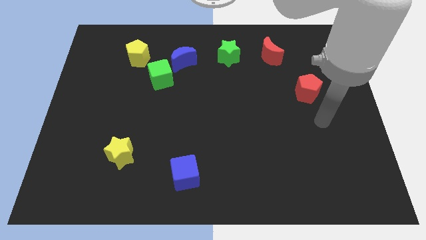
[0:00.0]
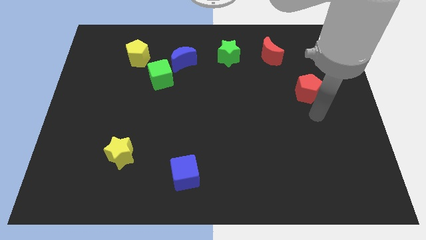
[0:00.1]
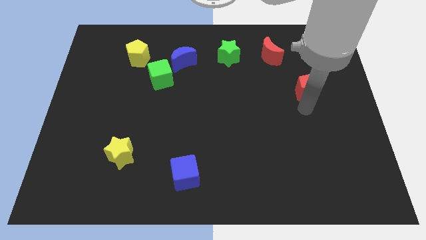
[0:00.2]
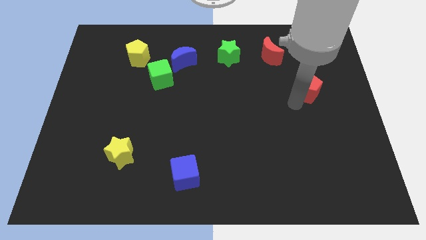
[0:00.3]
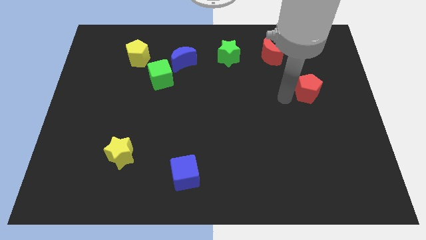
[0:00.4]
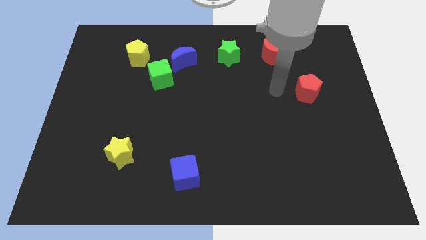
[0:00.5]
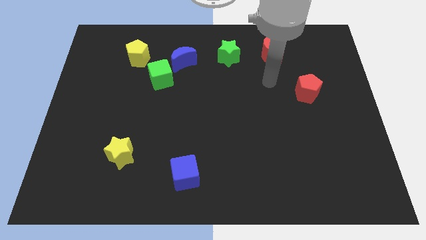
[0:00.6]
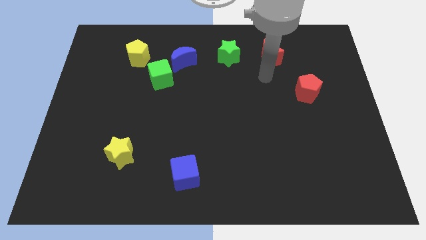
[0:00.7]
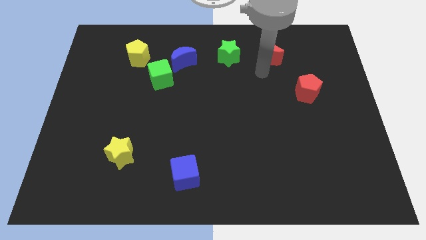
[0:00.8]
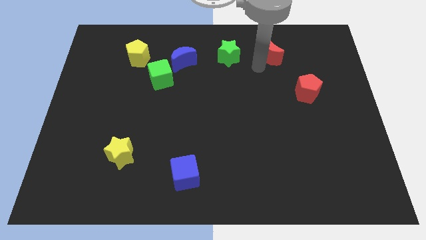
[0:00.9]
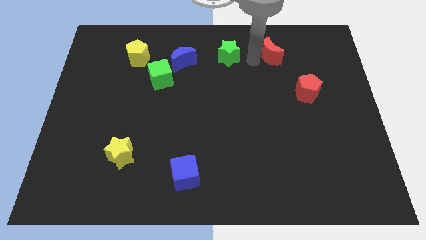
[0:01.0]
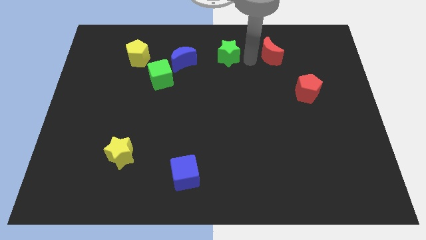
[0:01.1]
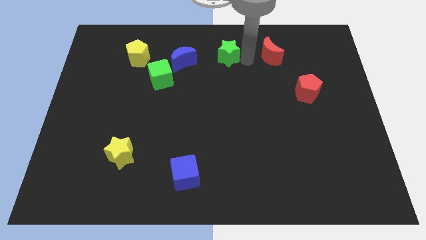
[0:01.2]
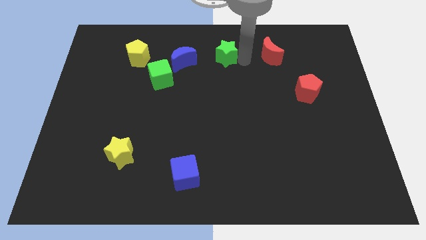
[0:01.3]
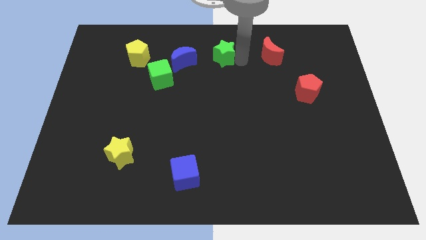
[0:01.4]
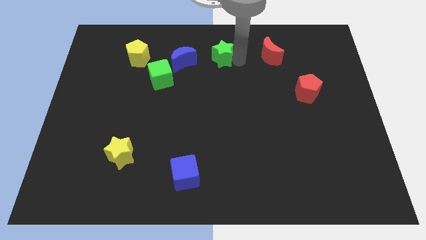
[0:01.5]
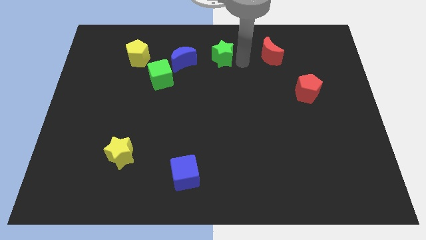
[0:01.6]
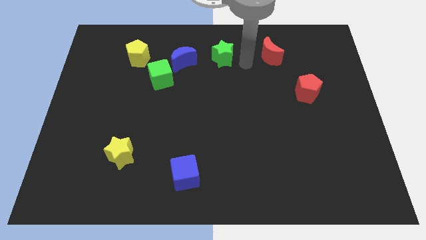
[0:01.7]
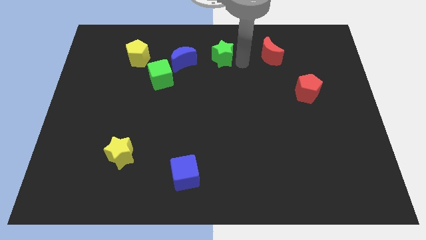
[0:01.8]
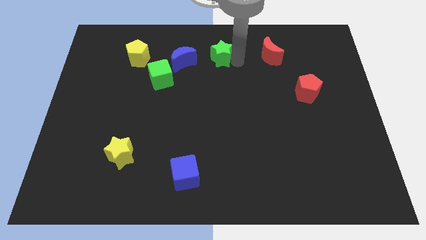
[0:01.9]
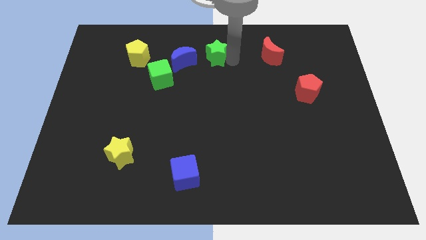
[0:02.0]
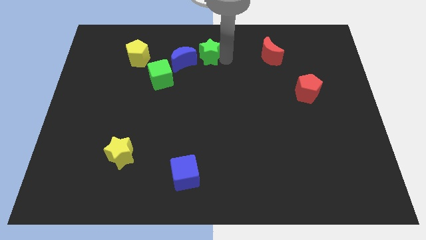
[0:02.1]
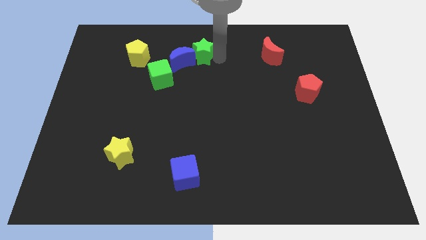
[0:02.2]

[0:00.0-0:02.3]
push the green star left slightly

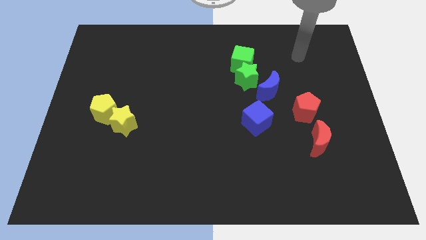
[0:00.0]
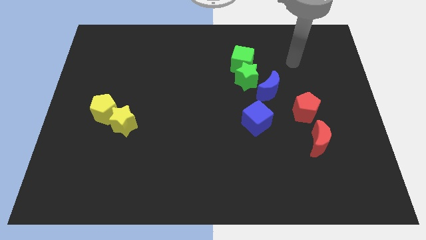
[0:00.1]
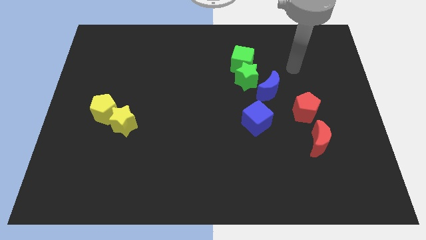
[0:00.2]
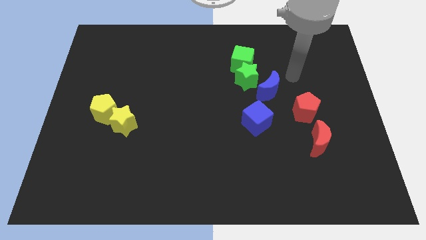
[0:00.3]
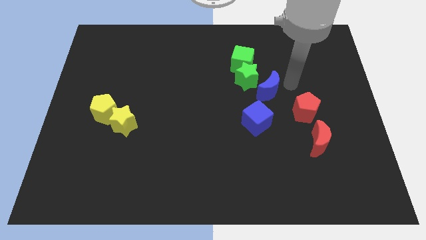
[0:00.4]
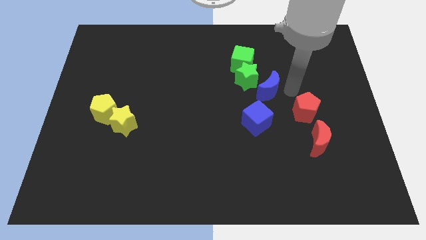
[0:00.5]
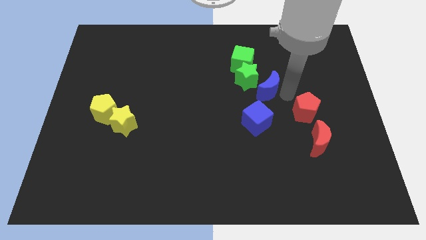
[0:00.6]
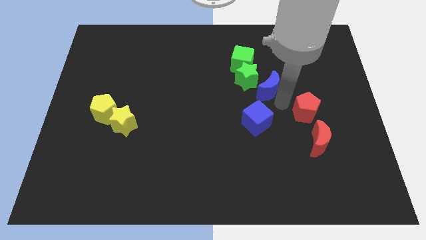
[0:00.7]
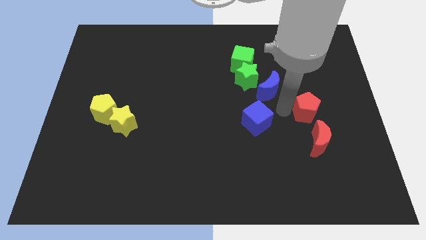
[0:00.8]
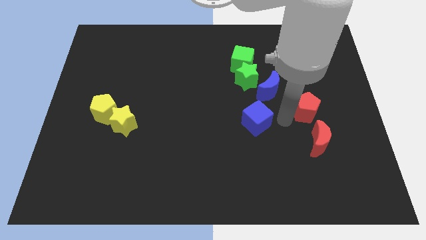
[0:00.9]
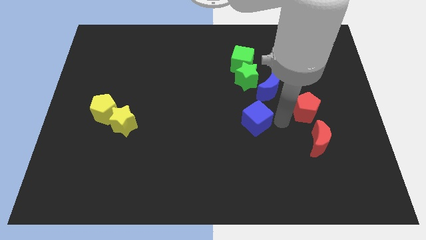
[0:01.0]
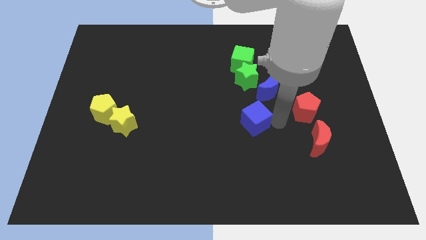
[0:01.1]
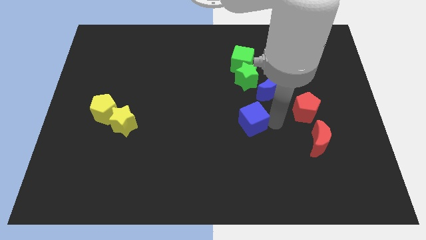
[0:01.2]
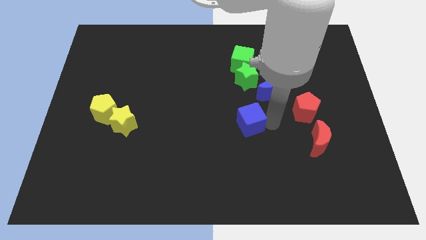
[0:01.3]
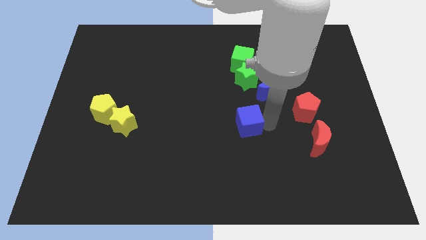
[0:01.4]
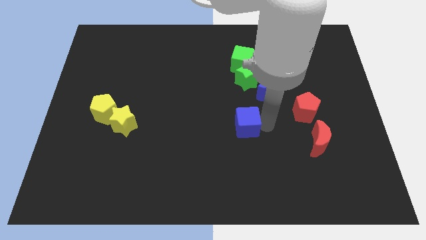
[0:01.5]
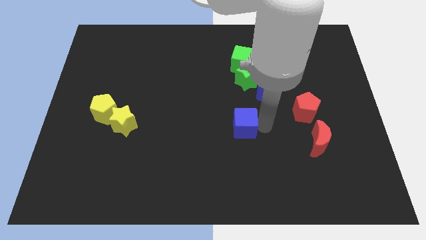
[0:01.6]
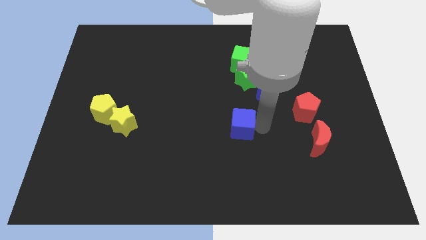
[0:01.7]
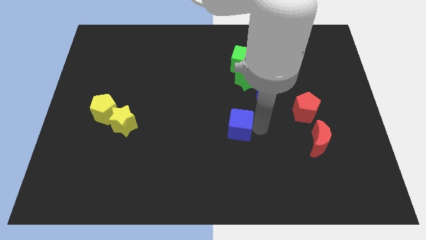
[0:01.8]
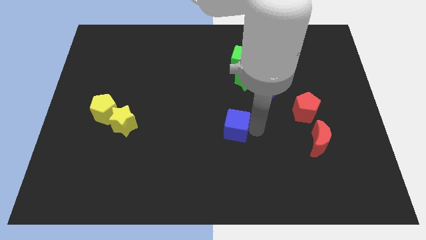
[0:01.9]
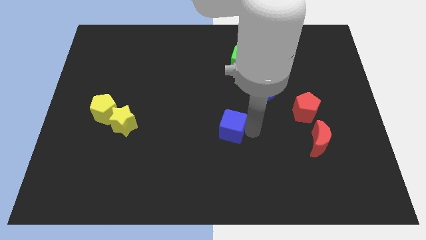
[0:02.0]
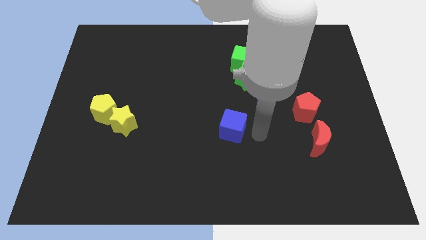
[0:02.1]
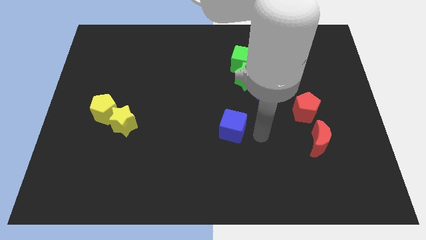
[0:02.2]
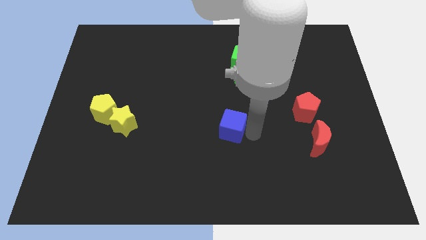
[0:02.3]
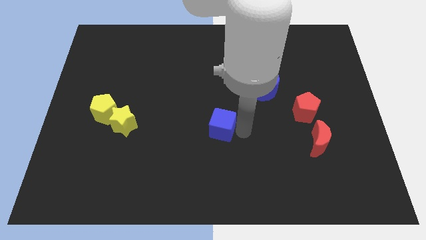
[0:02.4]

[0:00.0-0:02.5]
slide the blue cube slightly to the left

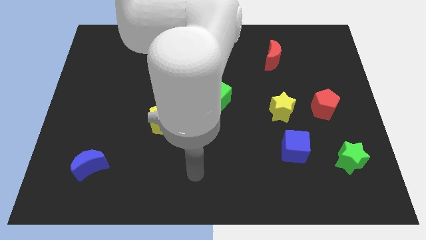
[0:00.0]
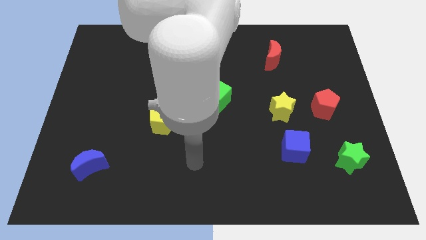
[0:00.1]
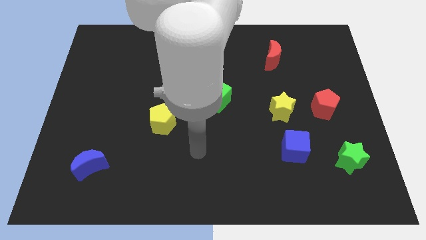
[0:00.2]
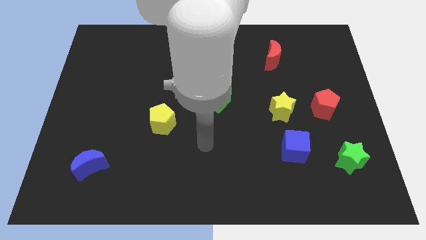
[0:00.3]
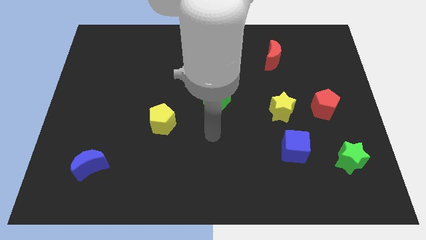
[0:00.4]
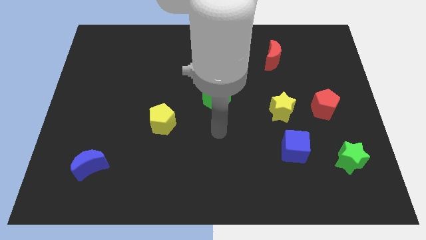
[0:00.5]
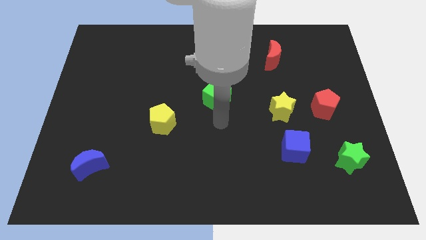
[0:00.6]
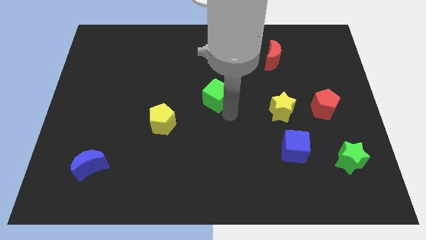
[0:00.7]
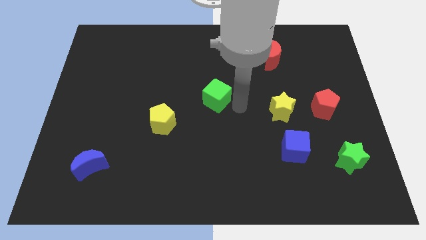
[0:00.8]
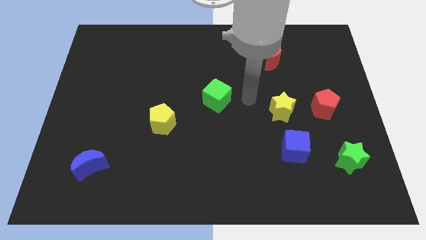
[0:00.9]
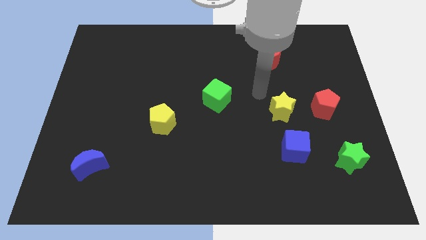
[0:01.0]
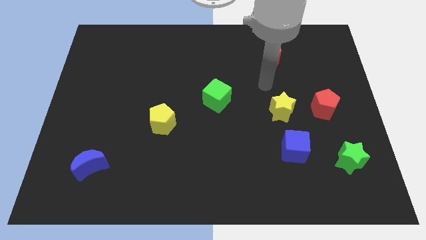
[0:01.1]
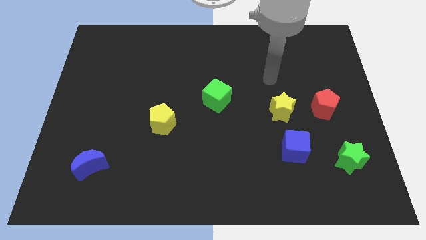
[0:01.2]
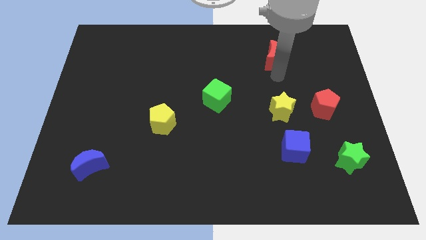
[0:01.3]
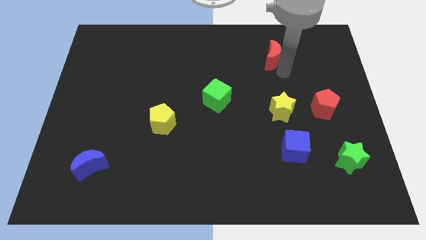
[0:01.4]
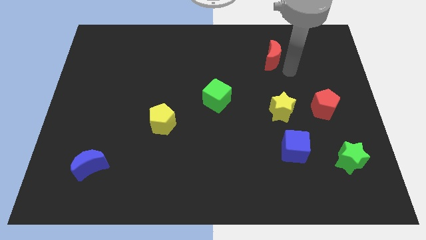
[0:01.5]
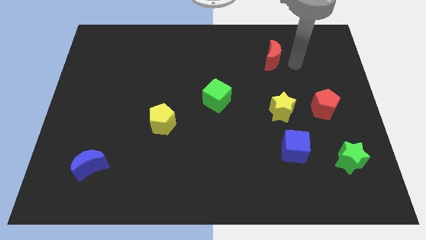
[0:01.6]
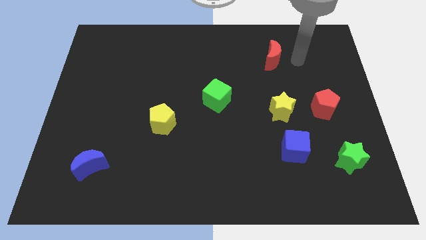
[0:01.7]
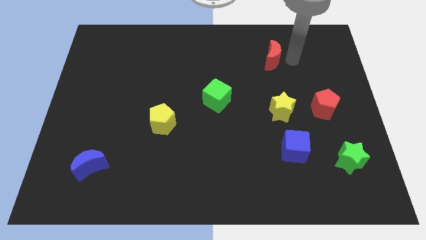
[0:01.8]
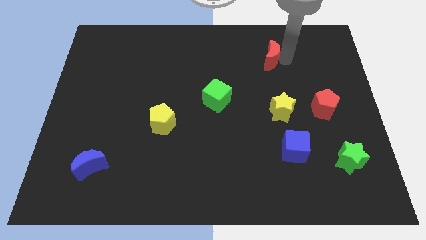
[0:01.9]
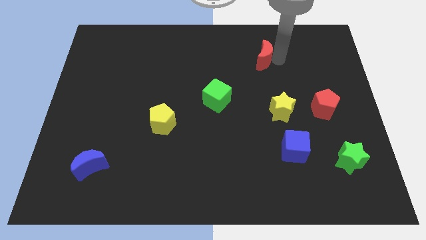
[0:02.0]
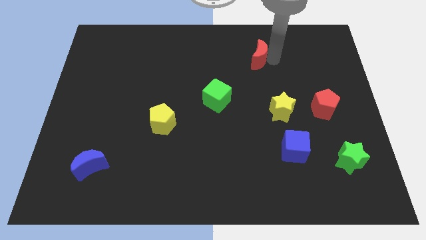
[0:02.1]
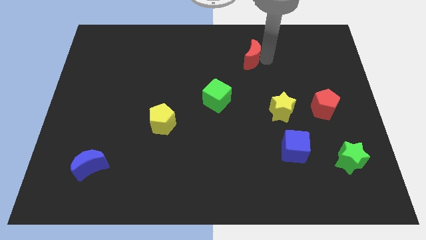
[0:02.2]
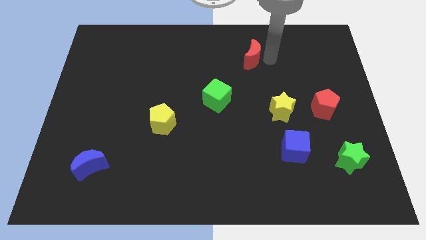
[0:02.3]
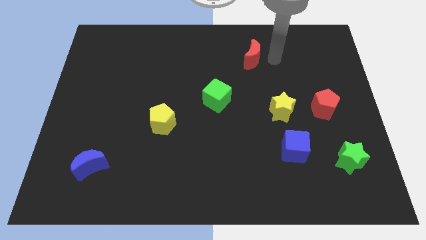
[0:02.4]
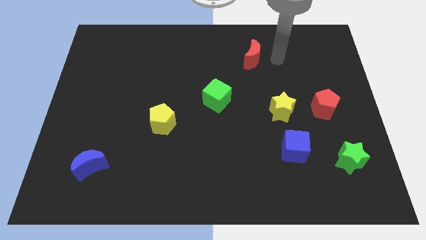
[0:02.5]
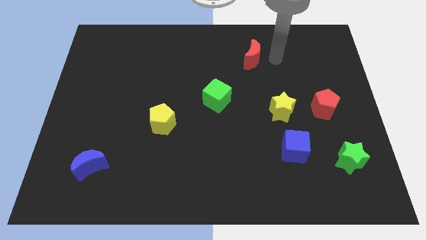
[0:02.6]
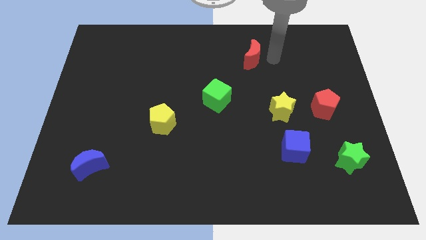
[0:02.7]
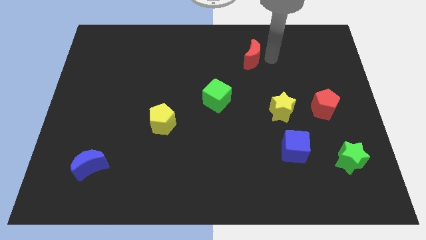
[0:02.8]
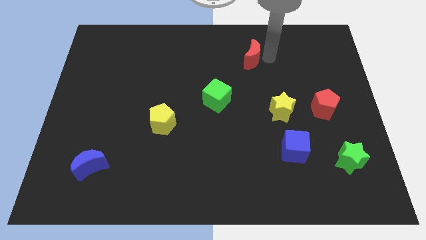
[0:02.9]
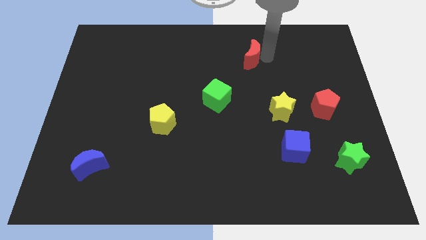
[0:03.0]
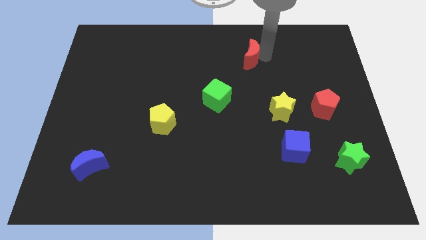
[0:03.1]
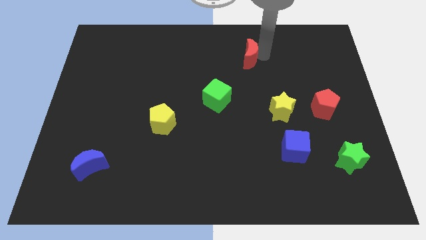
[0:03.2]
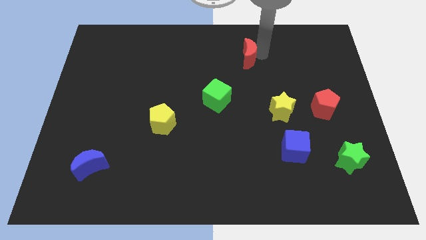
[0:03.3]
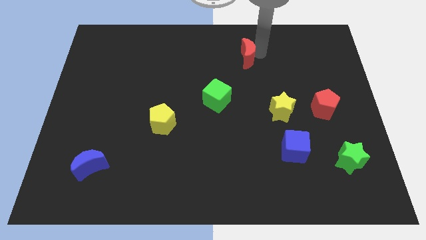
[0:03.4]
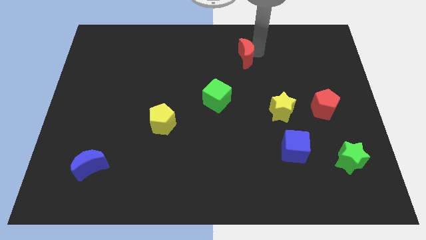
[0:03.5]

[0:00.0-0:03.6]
push the red moon somewhat to the left
